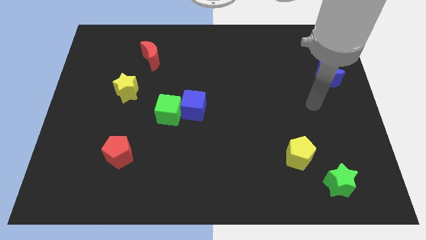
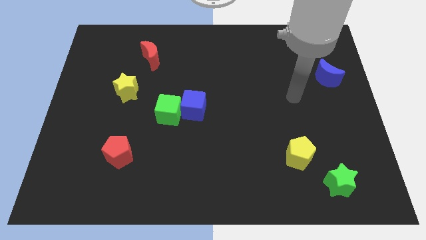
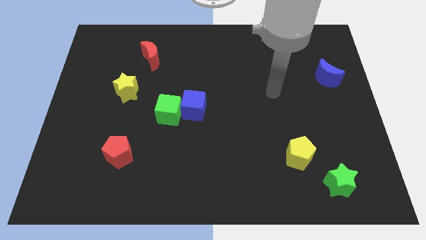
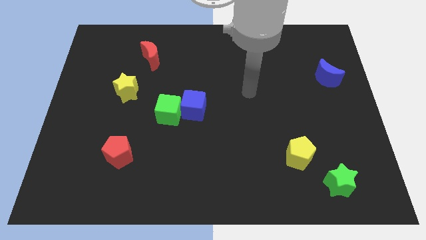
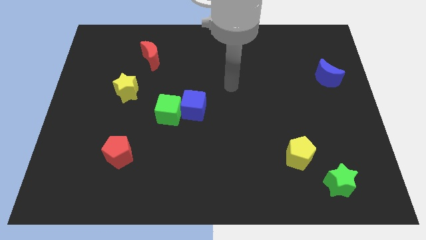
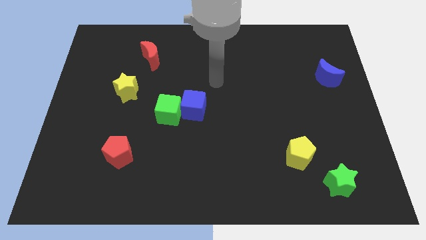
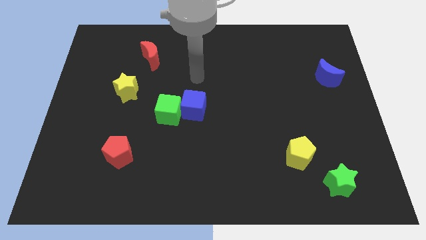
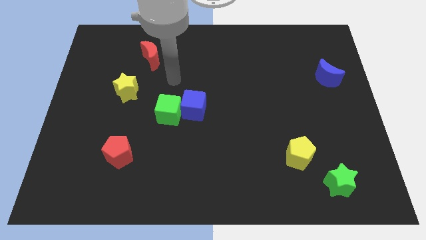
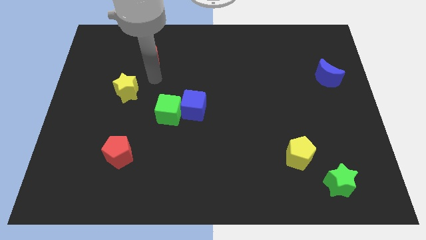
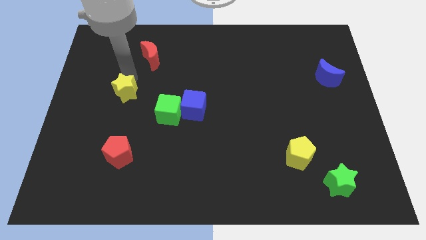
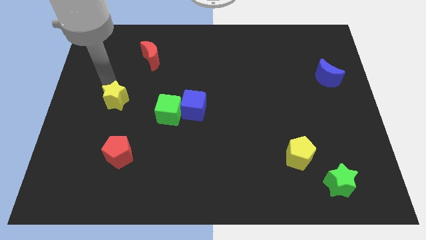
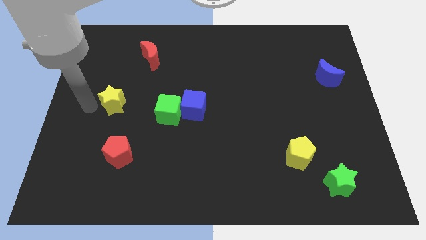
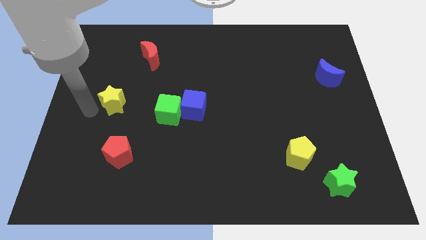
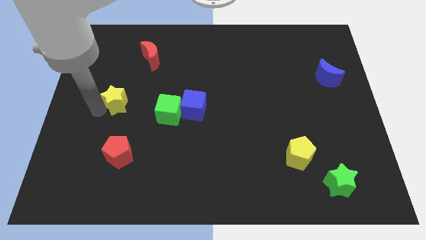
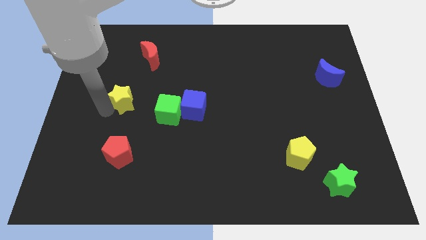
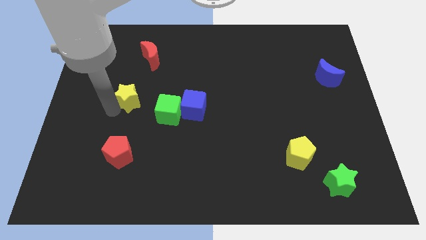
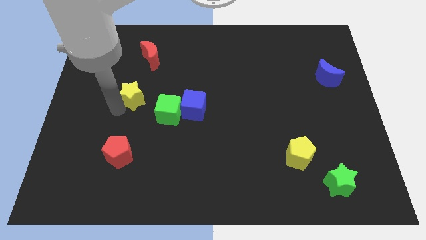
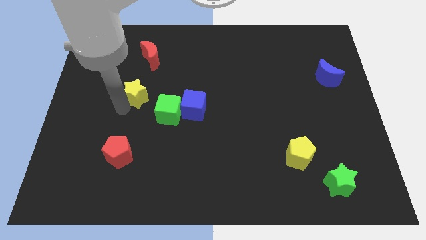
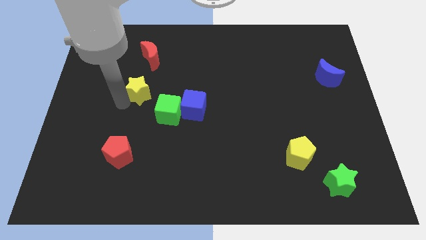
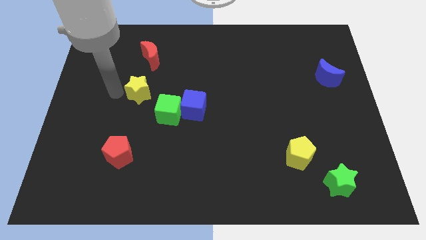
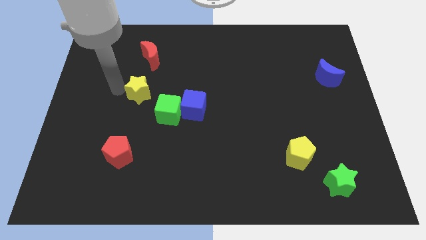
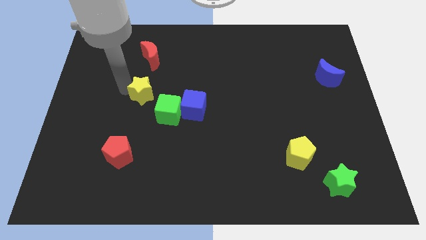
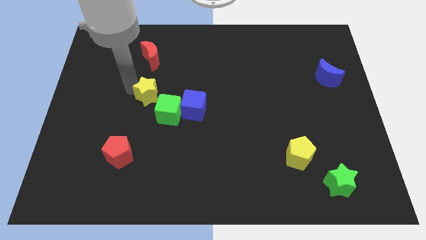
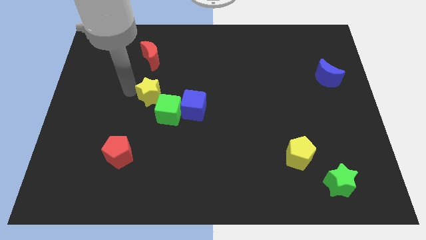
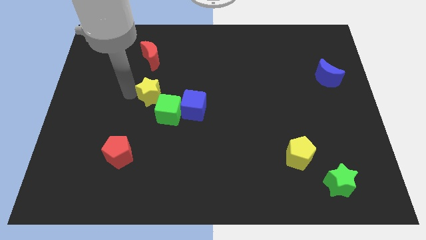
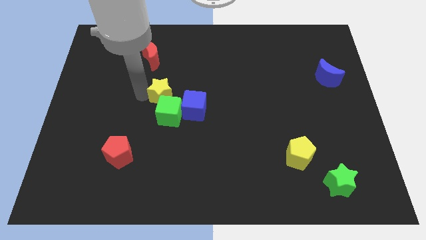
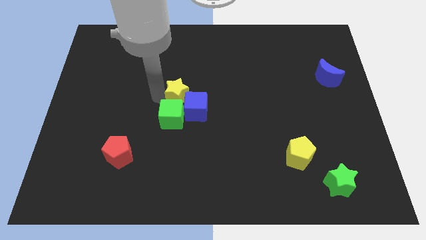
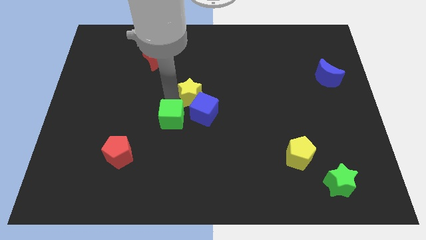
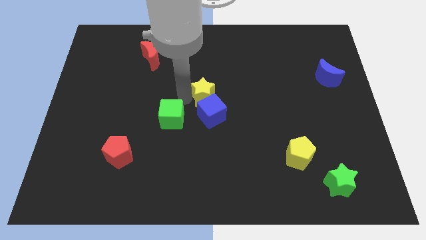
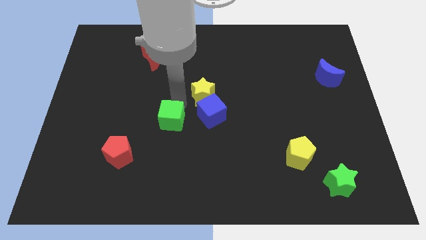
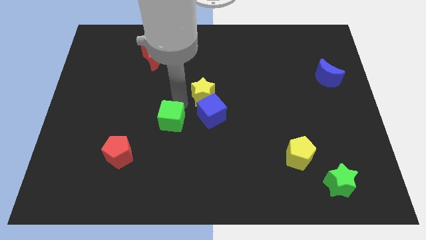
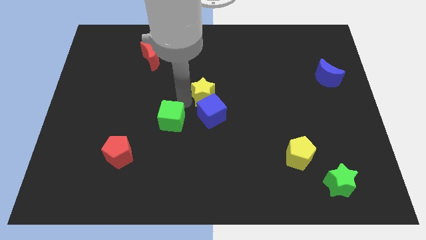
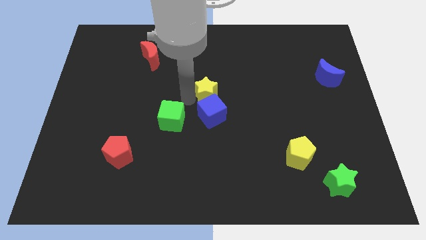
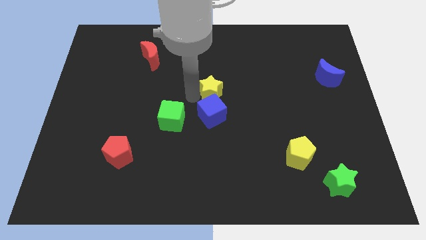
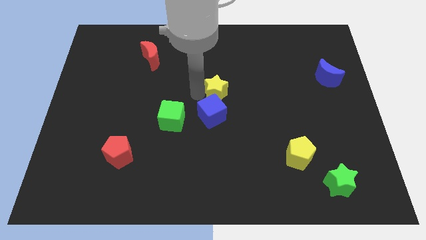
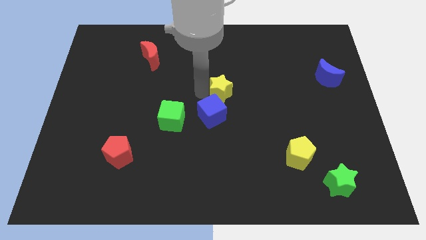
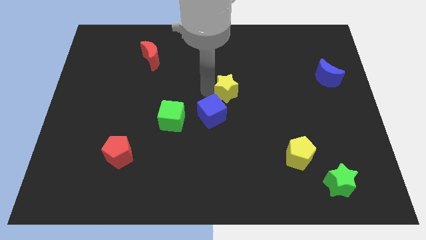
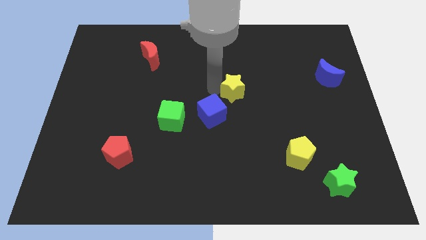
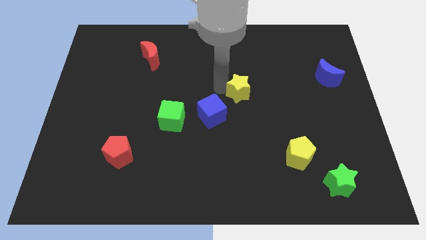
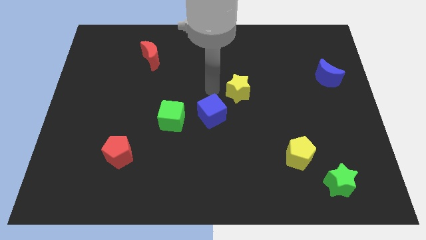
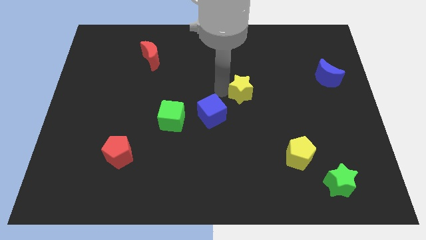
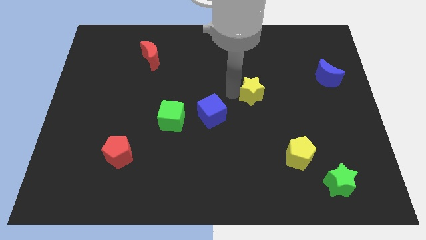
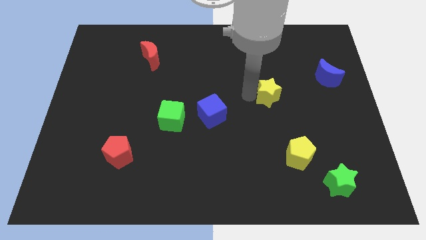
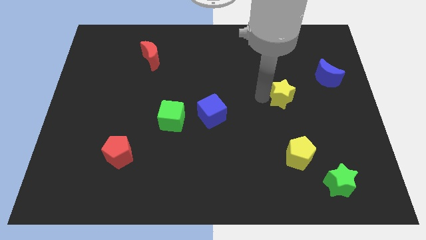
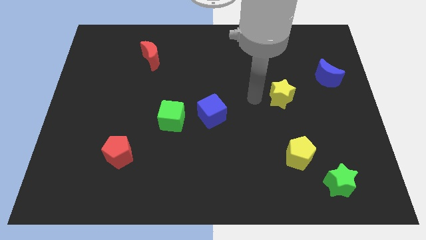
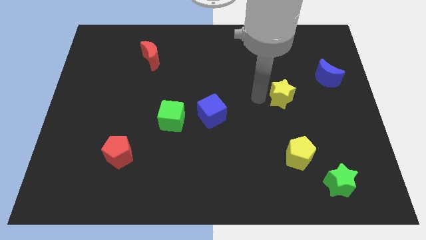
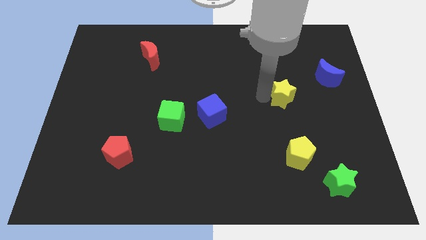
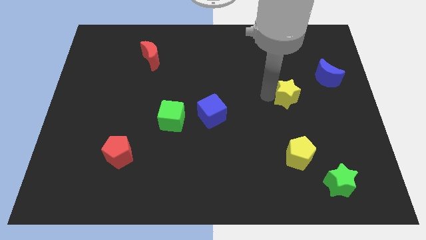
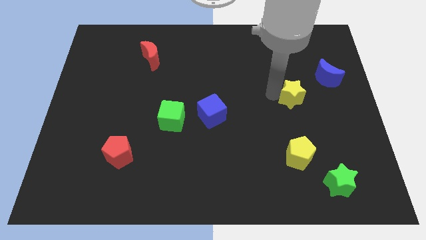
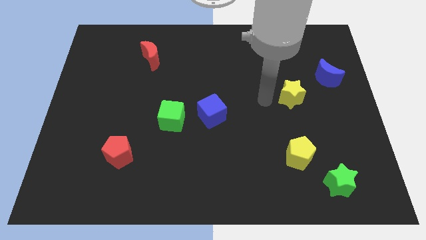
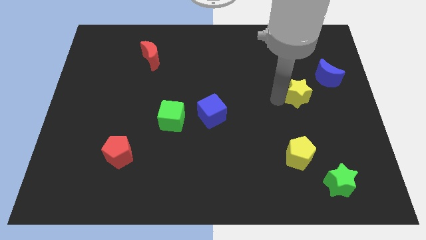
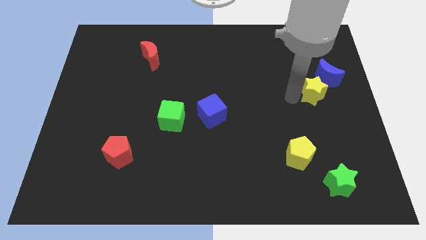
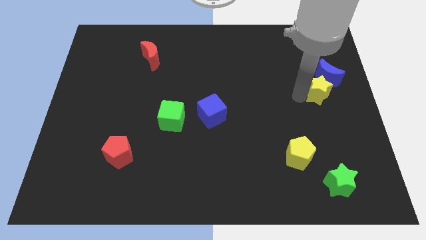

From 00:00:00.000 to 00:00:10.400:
put the yellow star to the right side of the board

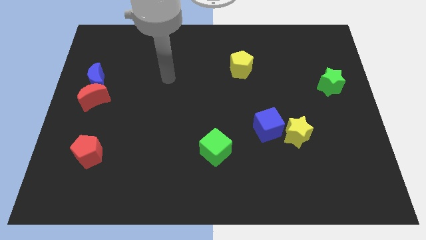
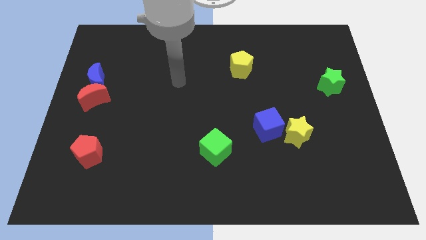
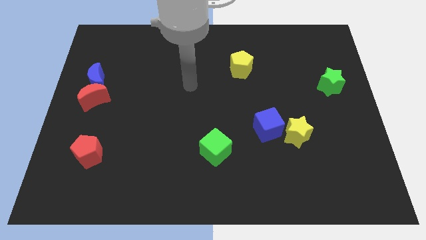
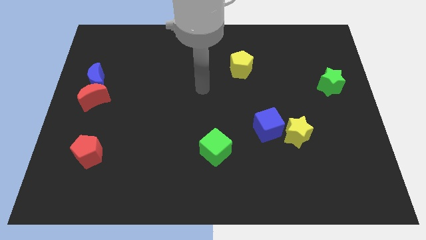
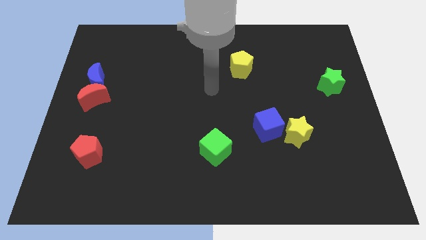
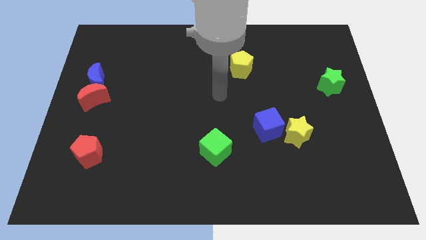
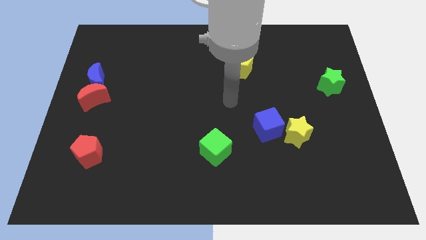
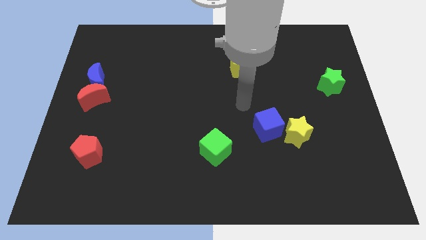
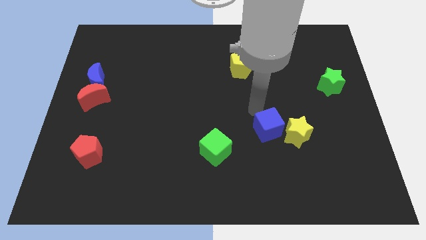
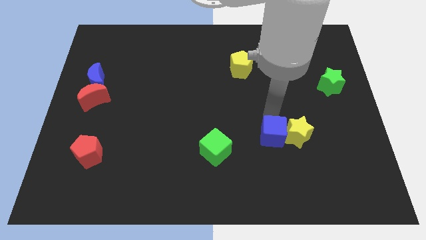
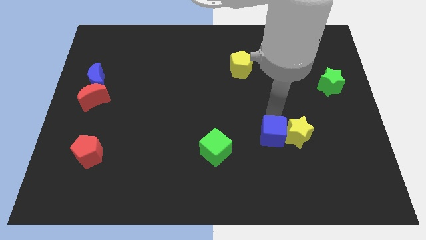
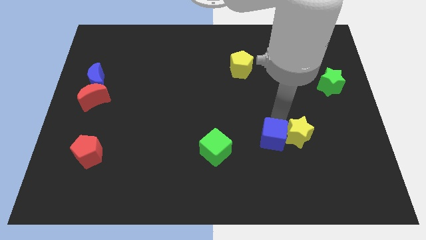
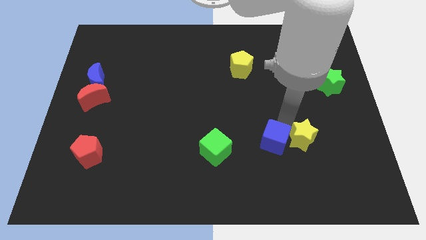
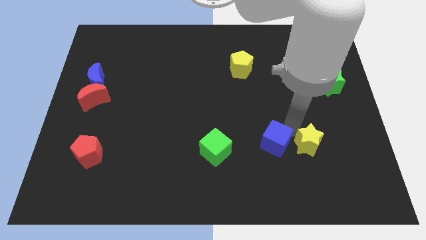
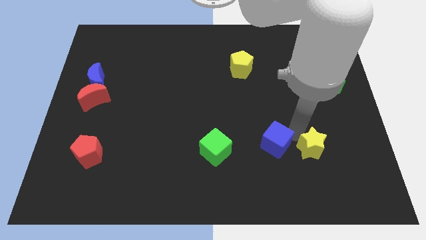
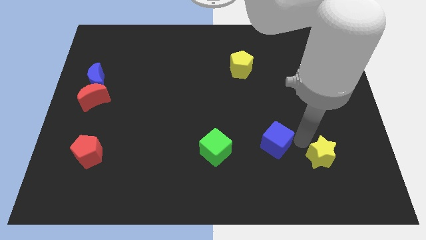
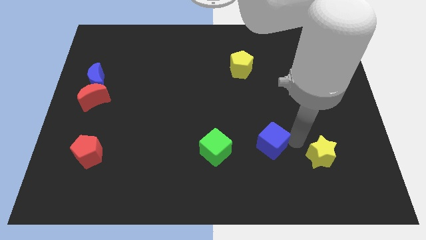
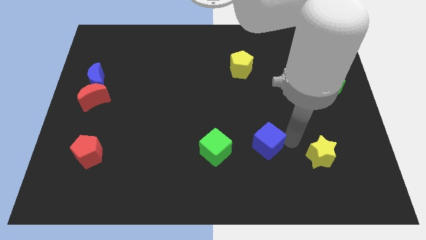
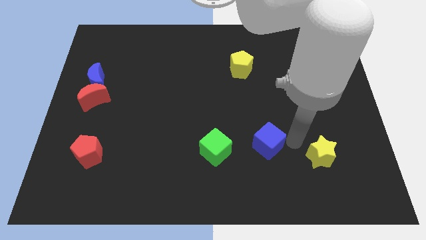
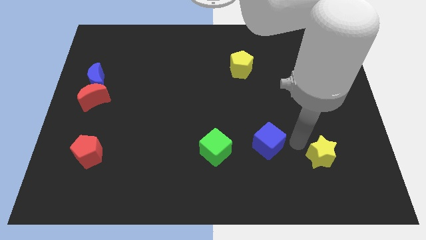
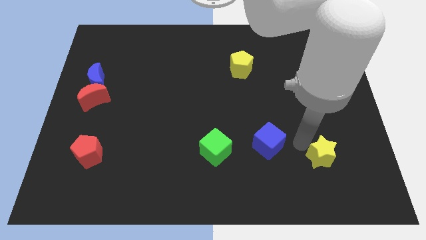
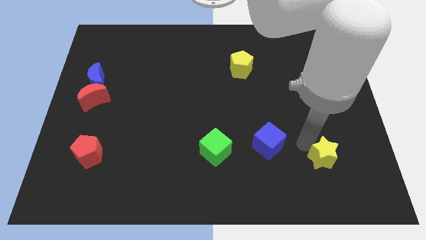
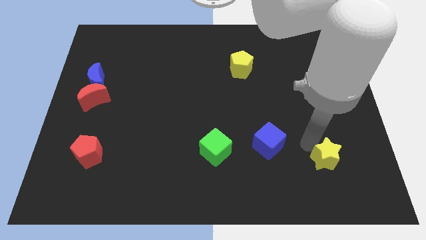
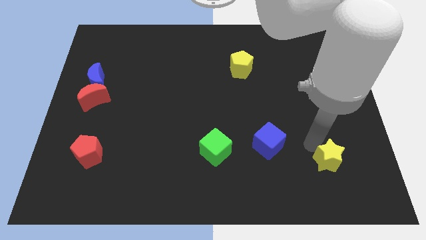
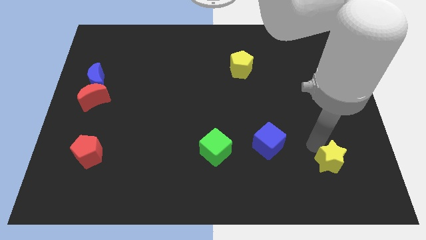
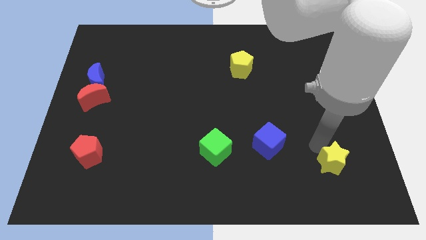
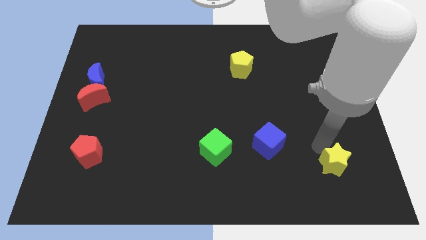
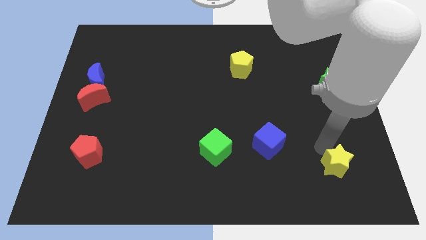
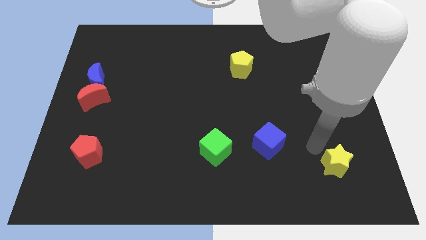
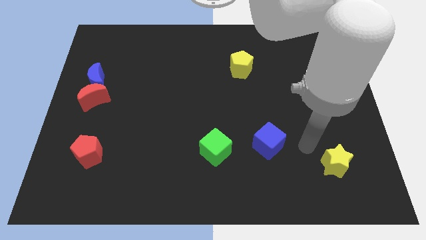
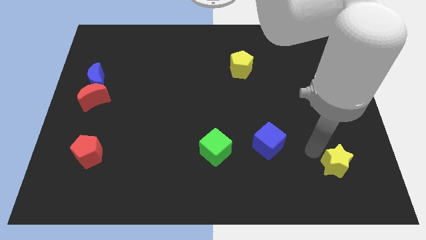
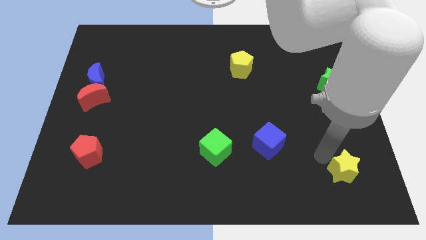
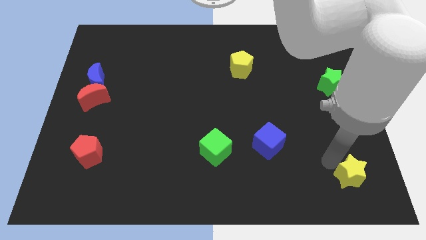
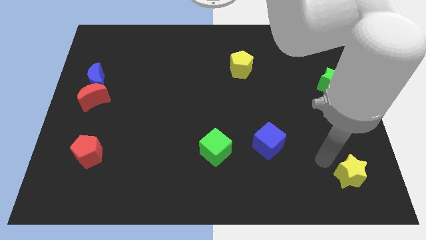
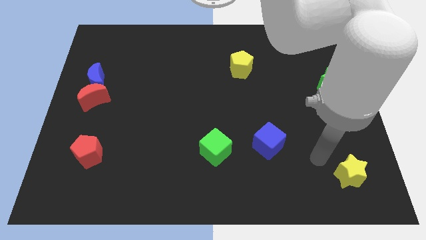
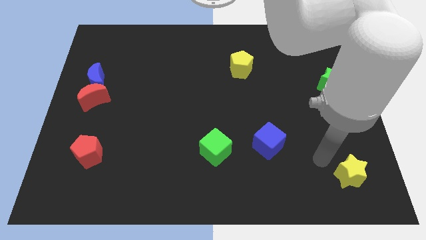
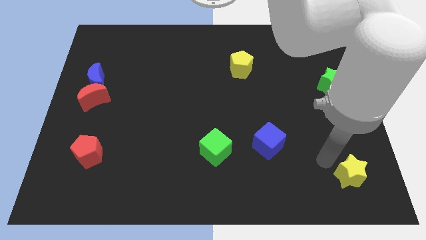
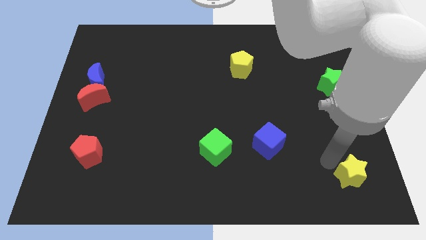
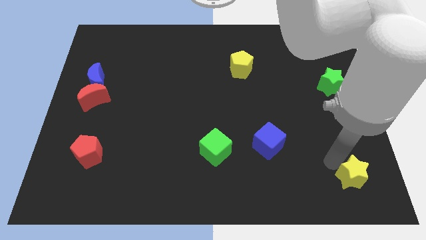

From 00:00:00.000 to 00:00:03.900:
move the yellow star to the bottom right corner
